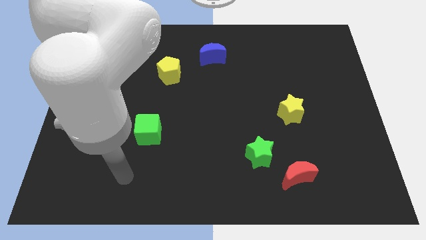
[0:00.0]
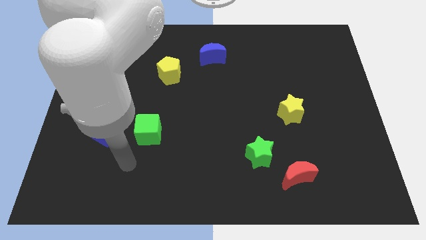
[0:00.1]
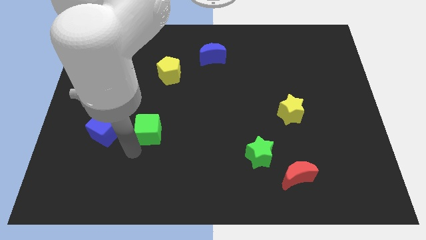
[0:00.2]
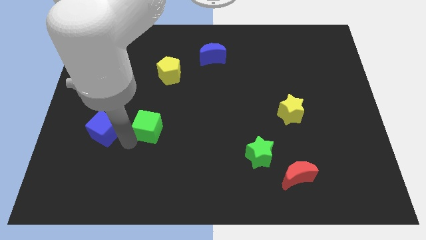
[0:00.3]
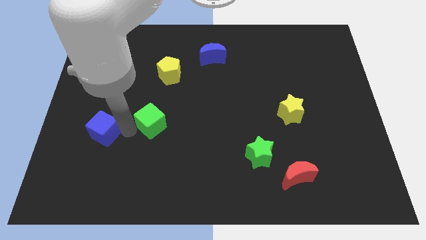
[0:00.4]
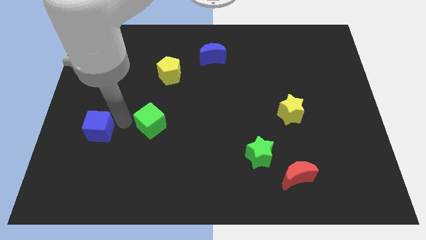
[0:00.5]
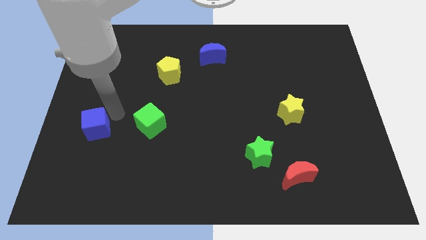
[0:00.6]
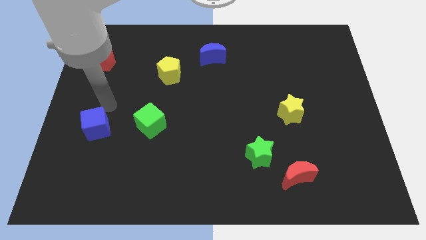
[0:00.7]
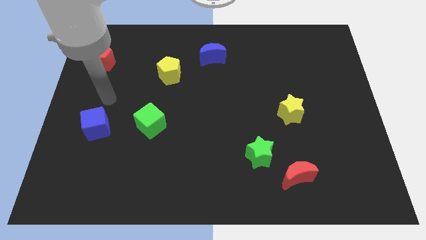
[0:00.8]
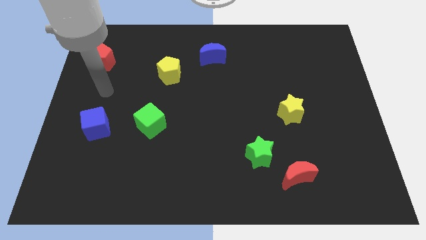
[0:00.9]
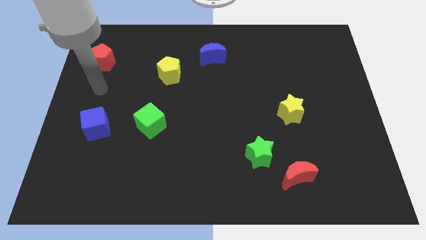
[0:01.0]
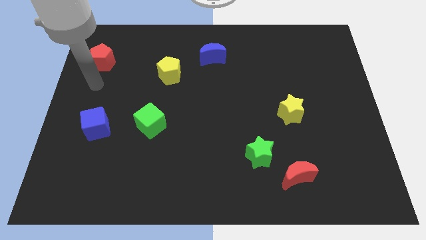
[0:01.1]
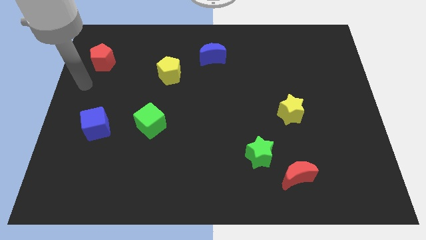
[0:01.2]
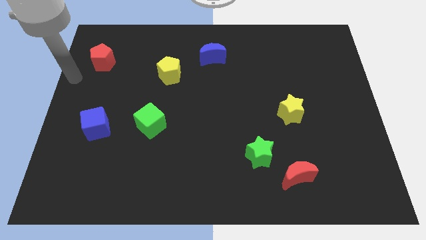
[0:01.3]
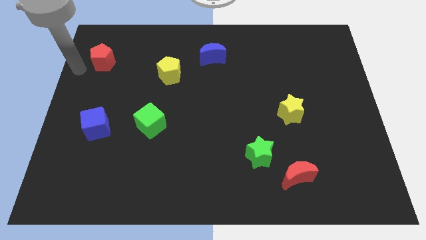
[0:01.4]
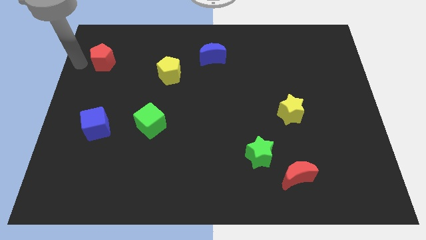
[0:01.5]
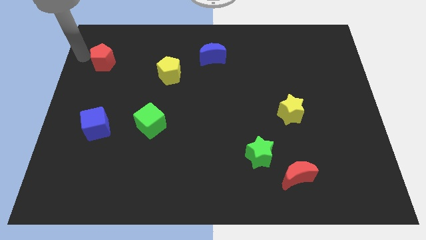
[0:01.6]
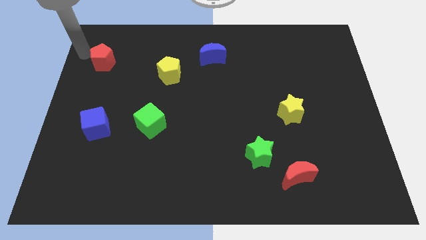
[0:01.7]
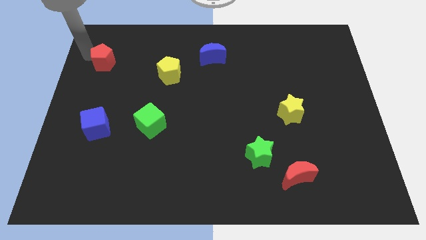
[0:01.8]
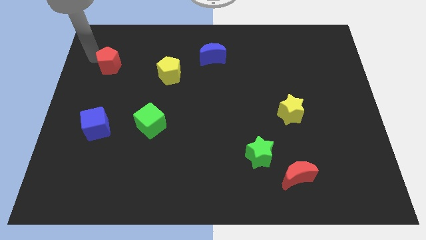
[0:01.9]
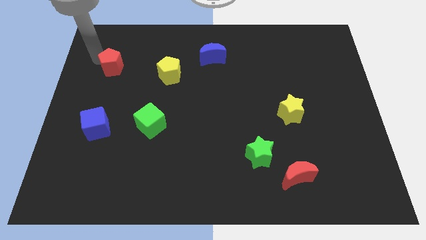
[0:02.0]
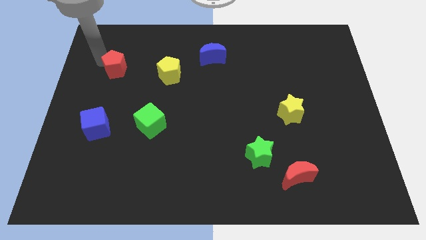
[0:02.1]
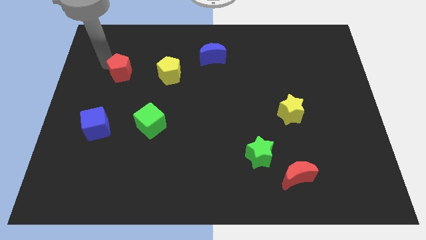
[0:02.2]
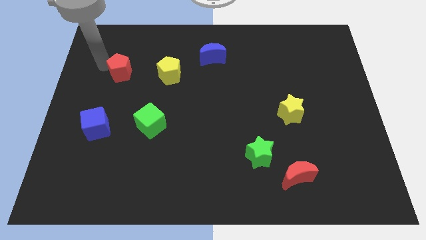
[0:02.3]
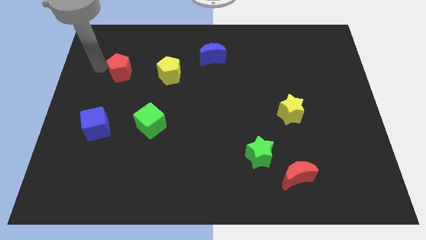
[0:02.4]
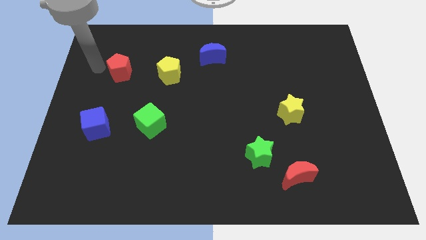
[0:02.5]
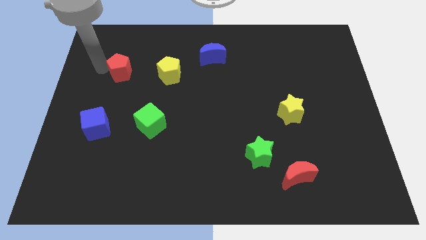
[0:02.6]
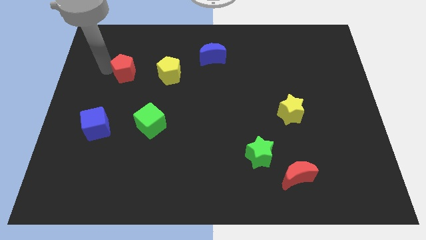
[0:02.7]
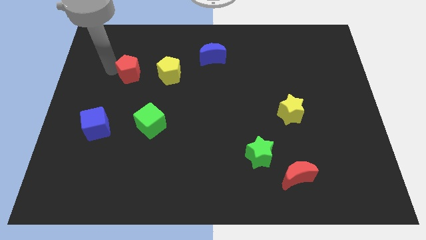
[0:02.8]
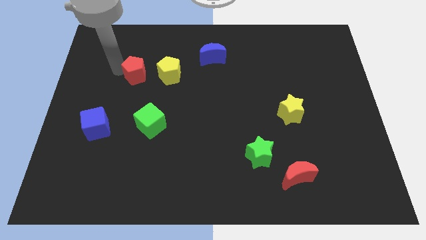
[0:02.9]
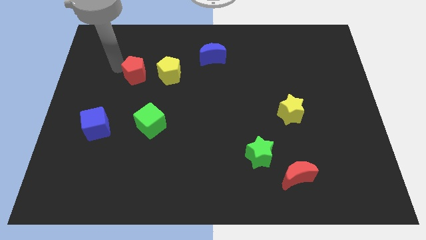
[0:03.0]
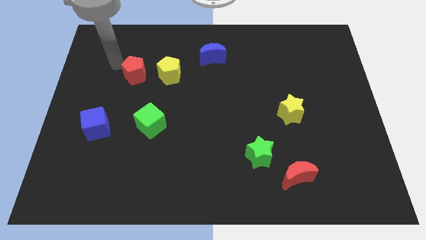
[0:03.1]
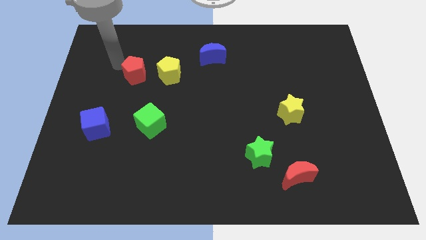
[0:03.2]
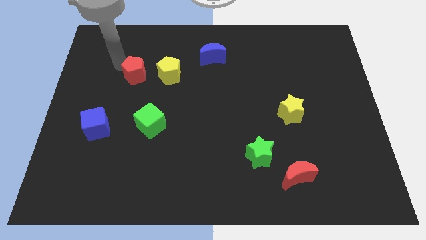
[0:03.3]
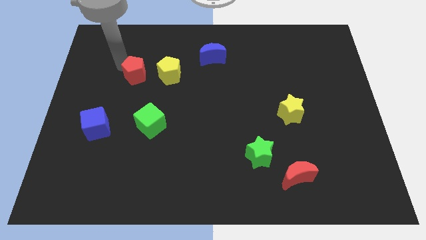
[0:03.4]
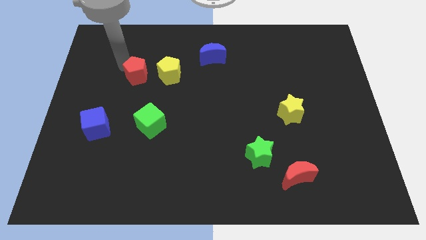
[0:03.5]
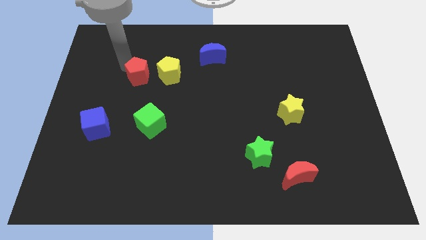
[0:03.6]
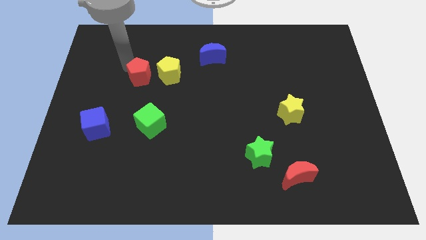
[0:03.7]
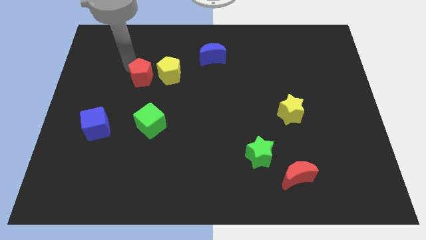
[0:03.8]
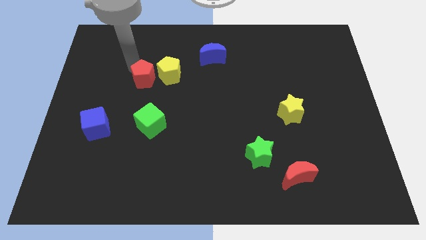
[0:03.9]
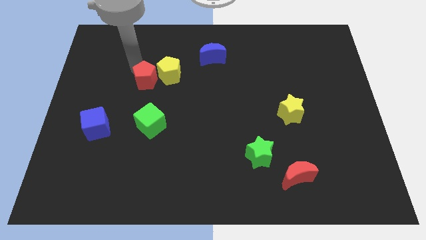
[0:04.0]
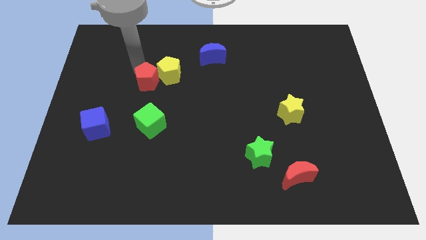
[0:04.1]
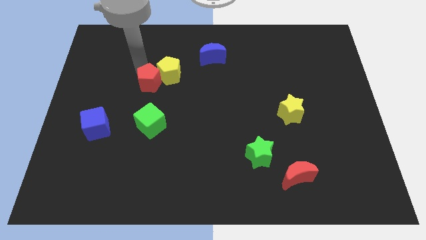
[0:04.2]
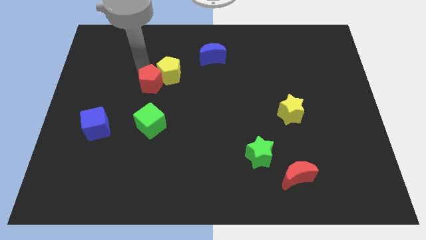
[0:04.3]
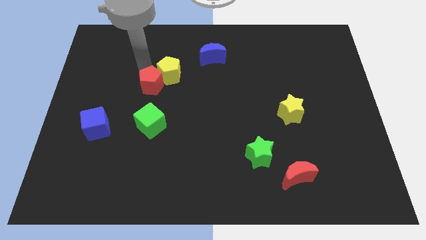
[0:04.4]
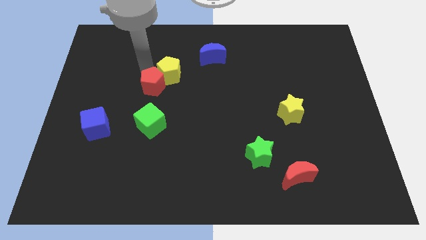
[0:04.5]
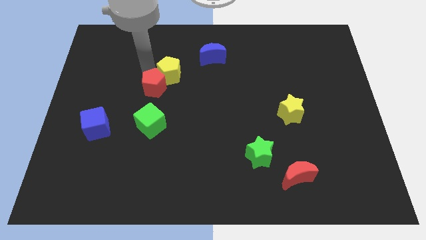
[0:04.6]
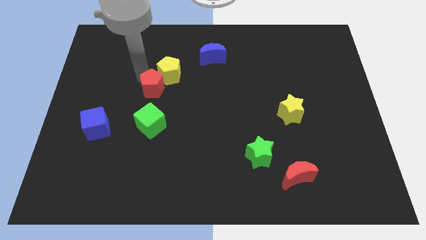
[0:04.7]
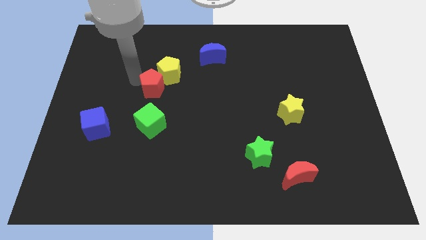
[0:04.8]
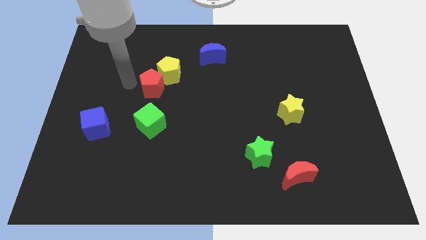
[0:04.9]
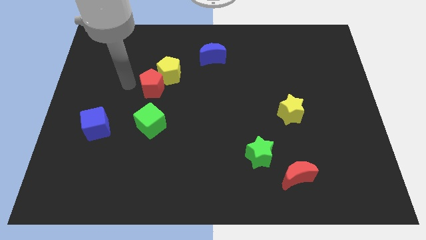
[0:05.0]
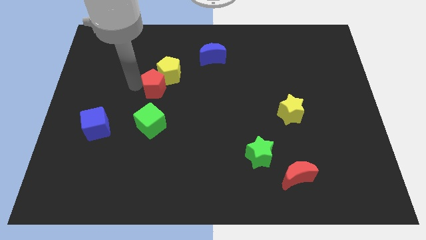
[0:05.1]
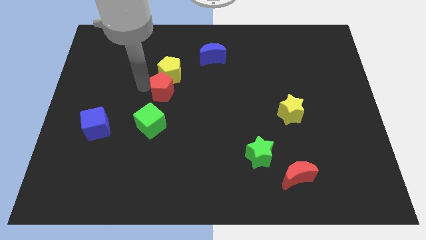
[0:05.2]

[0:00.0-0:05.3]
move the red pentagon to the middle
